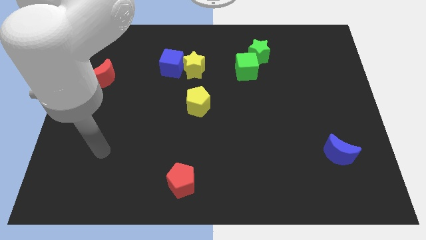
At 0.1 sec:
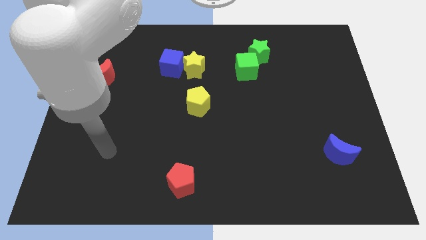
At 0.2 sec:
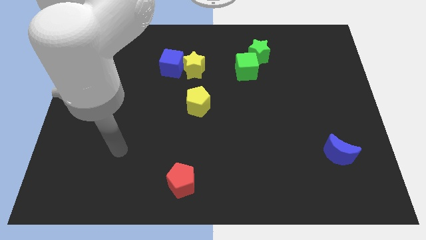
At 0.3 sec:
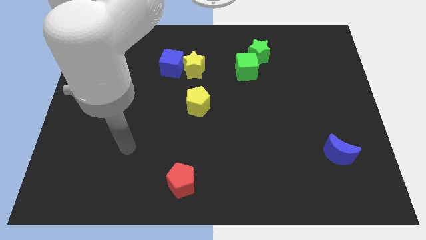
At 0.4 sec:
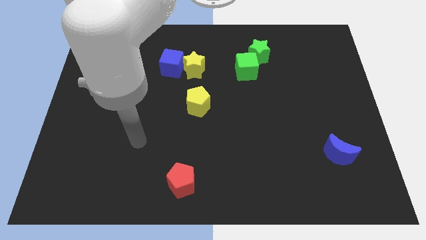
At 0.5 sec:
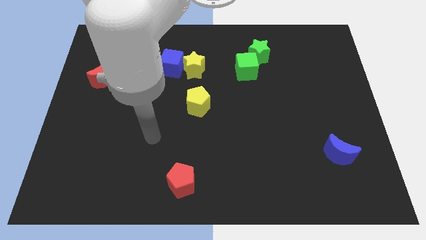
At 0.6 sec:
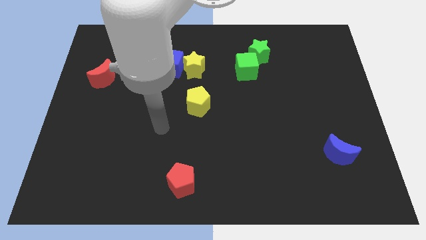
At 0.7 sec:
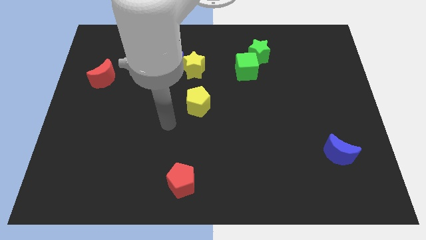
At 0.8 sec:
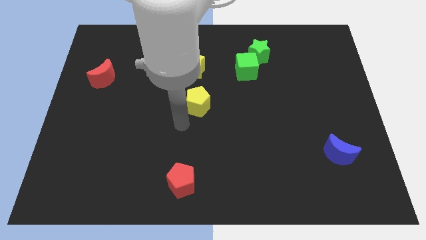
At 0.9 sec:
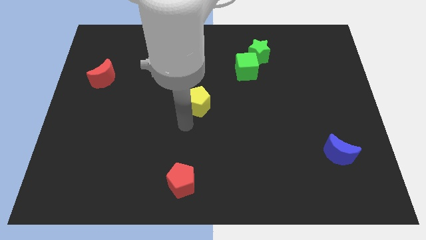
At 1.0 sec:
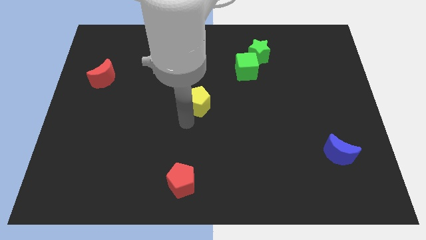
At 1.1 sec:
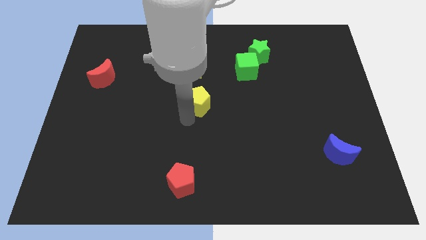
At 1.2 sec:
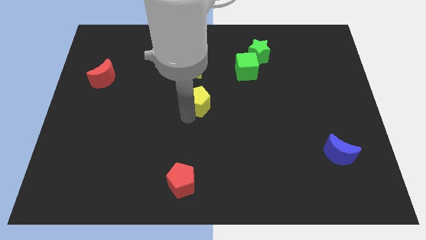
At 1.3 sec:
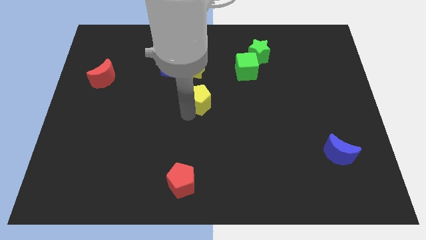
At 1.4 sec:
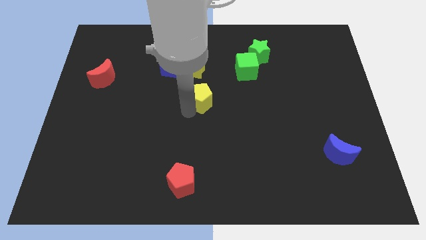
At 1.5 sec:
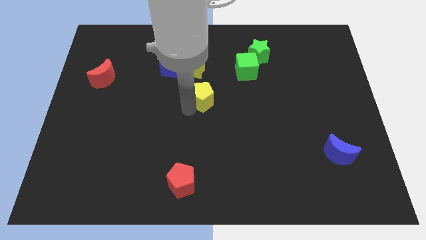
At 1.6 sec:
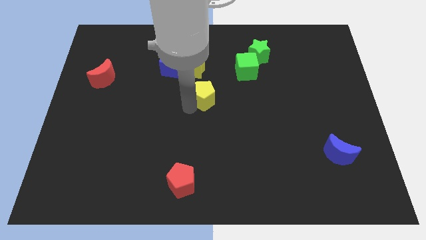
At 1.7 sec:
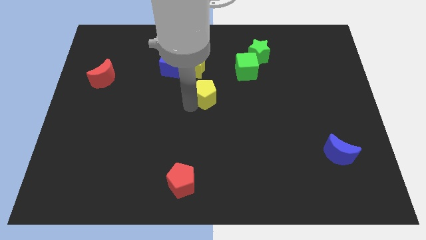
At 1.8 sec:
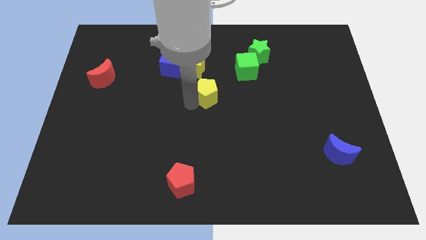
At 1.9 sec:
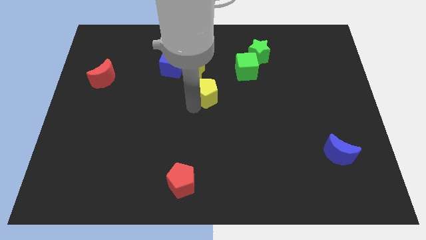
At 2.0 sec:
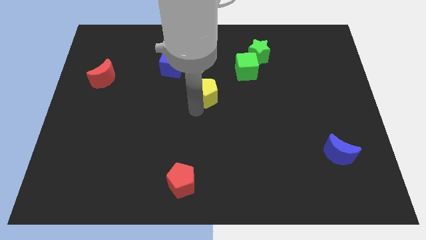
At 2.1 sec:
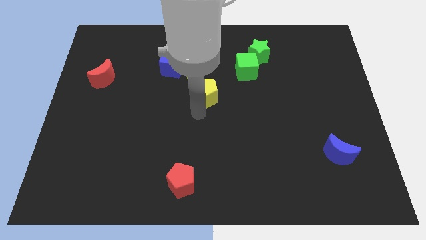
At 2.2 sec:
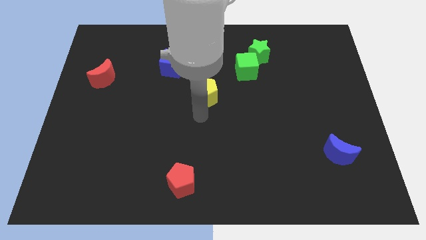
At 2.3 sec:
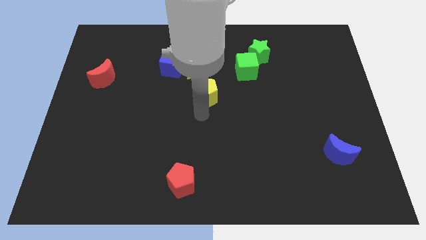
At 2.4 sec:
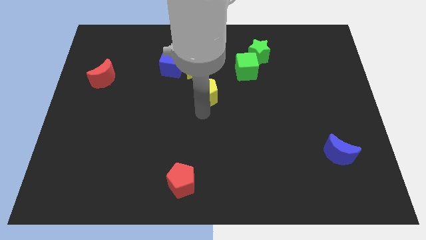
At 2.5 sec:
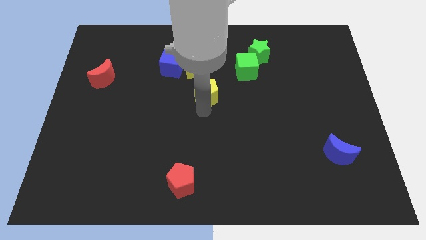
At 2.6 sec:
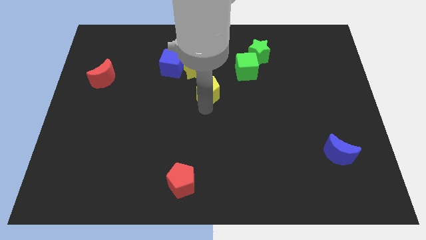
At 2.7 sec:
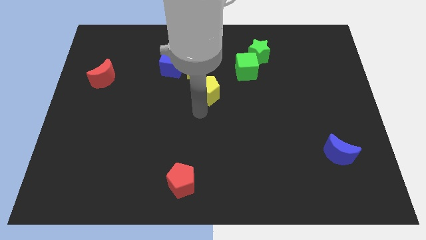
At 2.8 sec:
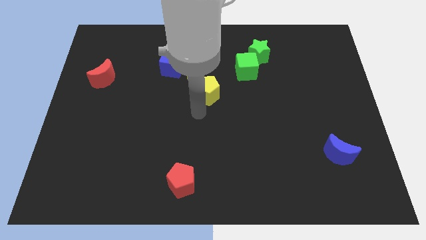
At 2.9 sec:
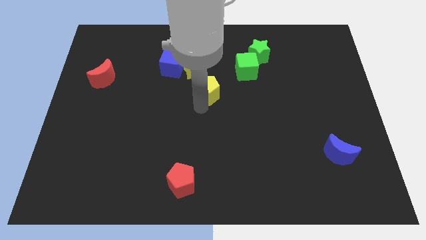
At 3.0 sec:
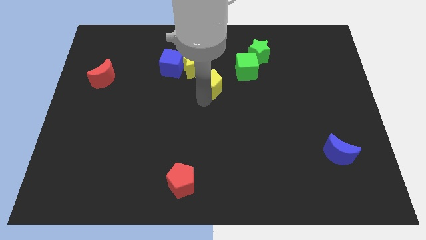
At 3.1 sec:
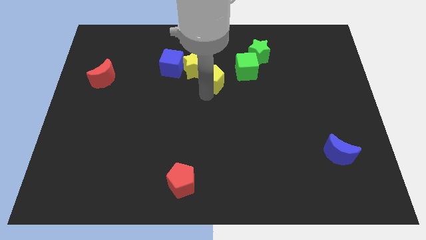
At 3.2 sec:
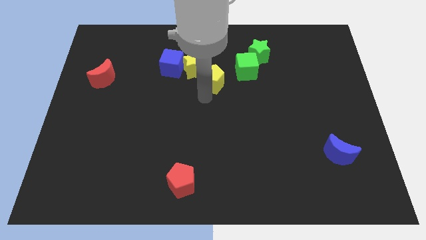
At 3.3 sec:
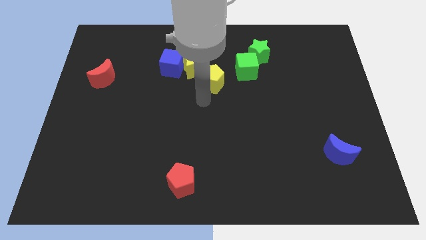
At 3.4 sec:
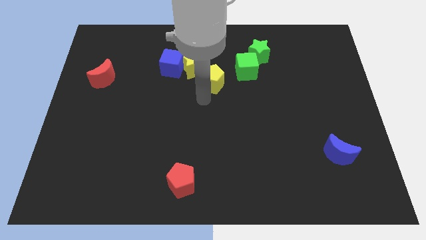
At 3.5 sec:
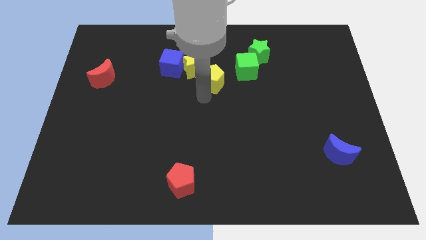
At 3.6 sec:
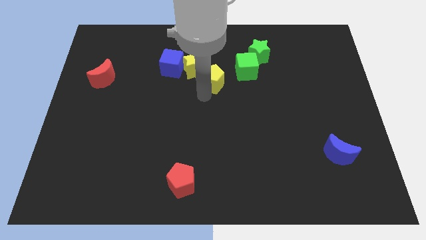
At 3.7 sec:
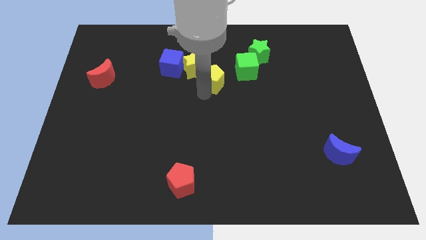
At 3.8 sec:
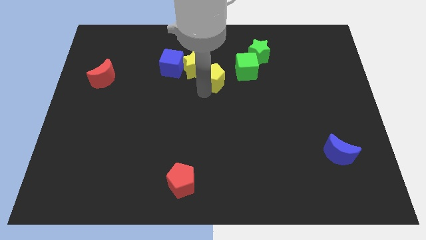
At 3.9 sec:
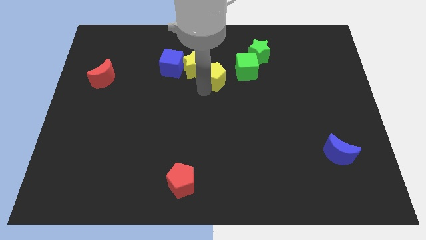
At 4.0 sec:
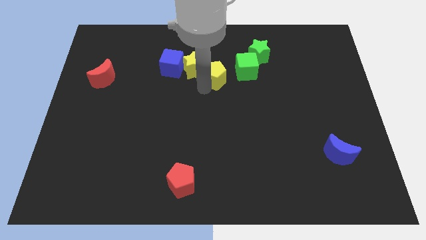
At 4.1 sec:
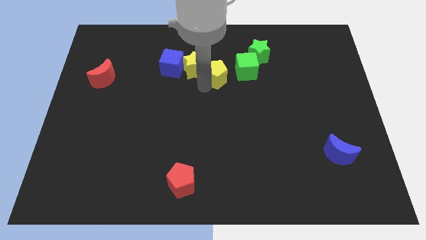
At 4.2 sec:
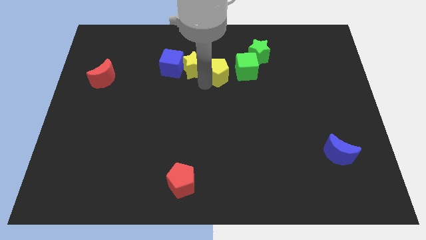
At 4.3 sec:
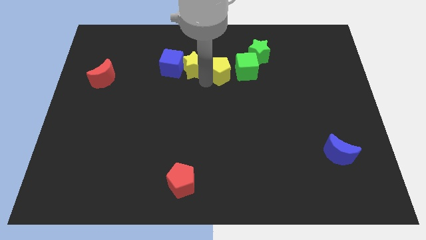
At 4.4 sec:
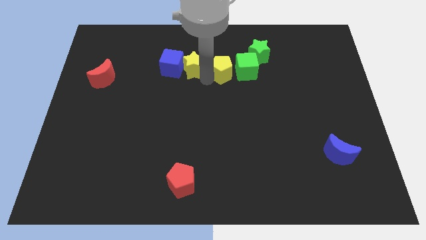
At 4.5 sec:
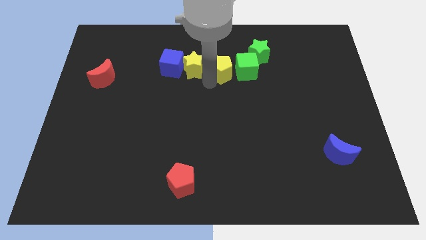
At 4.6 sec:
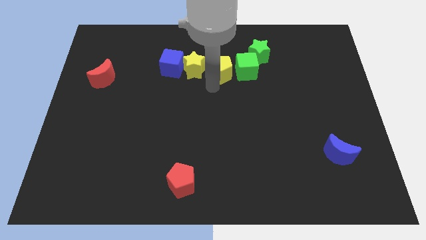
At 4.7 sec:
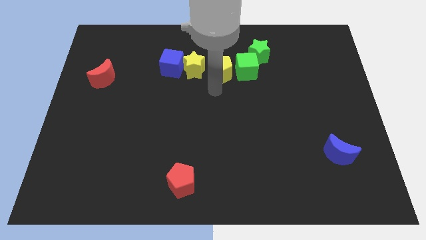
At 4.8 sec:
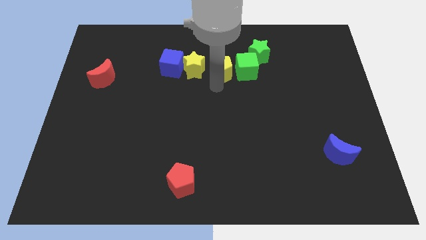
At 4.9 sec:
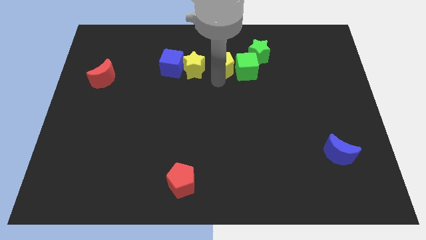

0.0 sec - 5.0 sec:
put the yellow pentagon diagonally up and to the left of the green cube

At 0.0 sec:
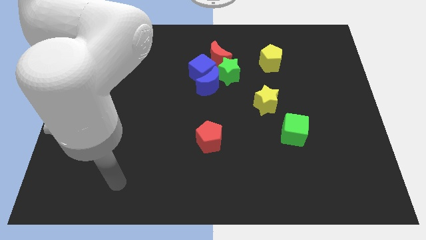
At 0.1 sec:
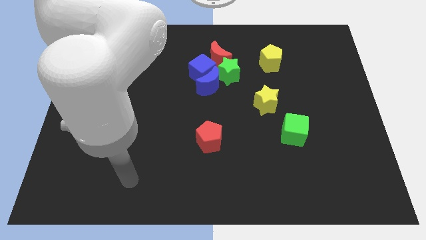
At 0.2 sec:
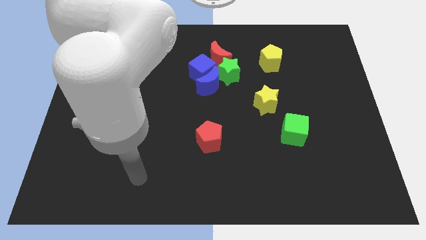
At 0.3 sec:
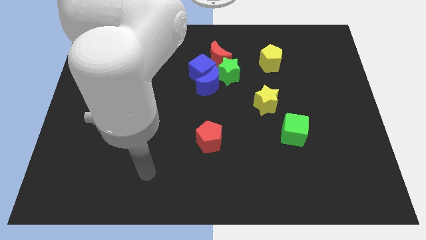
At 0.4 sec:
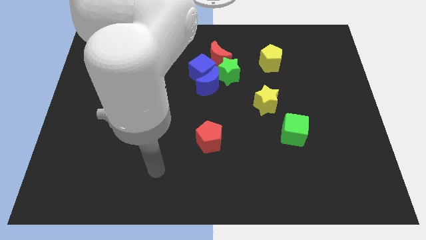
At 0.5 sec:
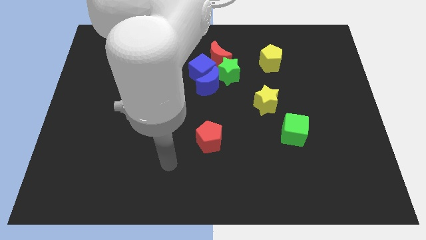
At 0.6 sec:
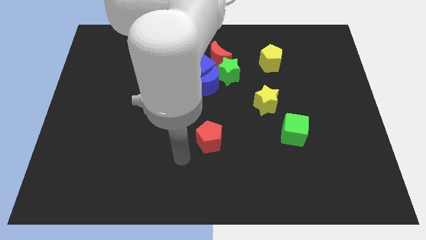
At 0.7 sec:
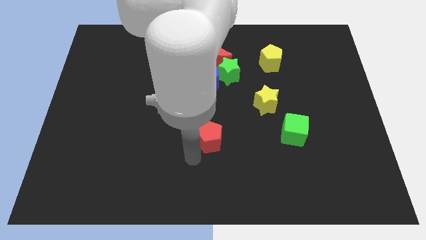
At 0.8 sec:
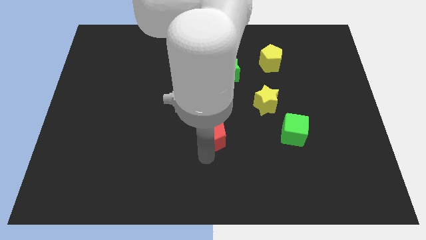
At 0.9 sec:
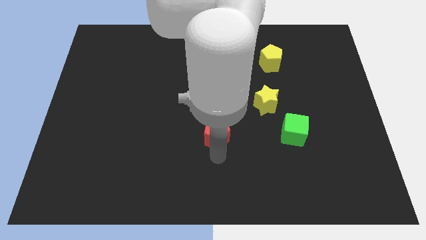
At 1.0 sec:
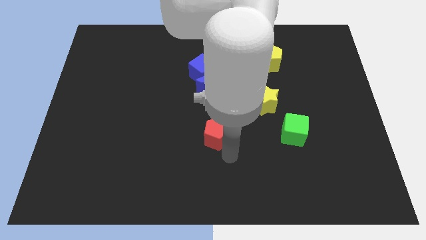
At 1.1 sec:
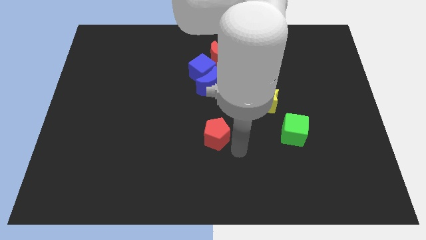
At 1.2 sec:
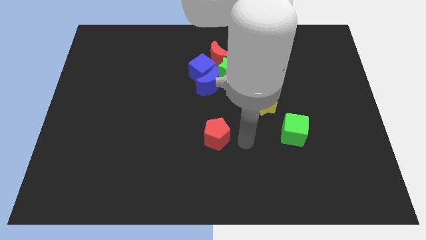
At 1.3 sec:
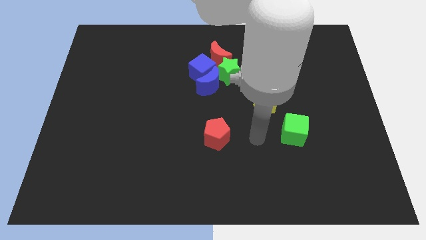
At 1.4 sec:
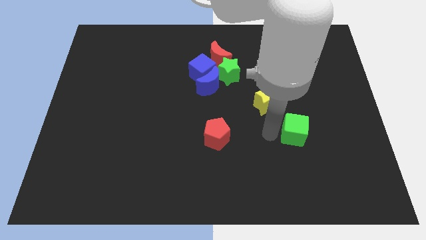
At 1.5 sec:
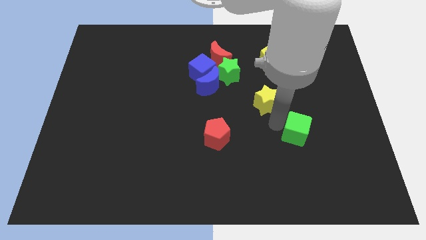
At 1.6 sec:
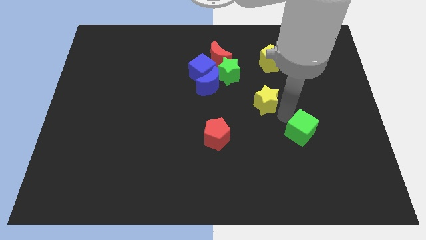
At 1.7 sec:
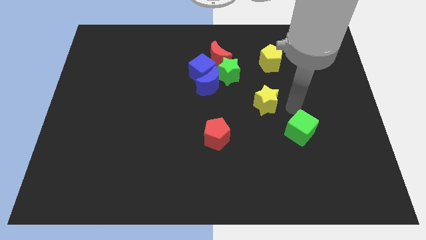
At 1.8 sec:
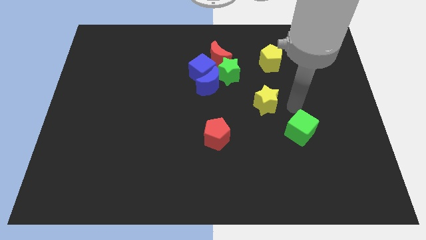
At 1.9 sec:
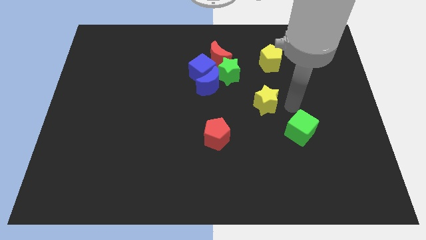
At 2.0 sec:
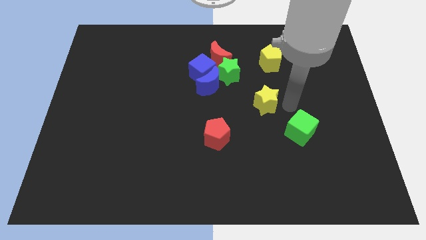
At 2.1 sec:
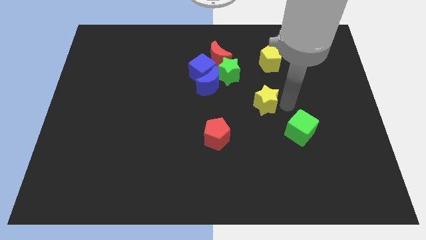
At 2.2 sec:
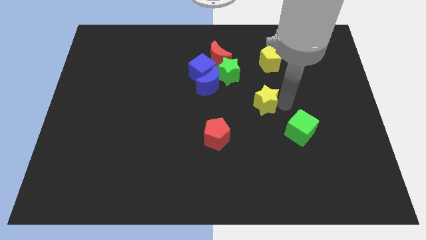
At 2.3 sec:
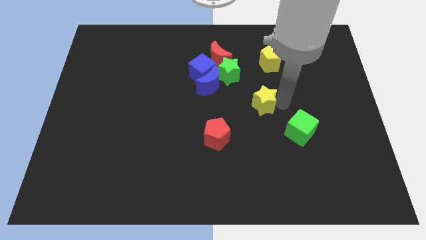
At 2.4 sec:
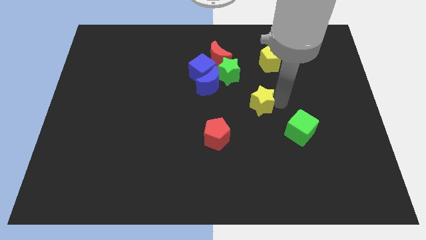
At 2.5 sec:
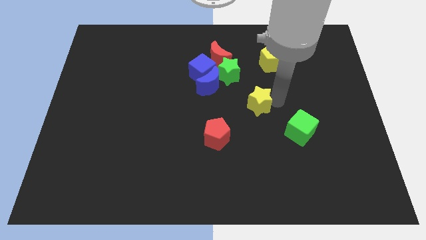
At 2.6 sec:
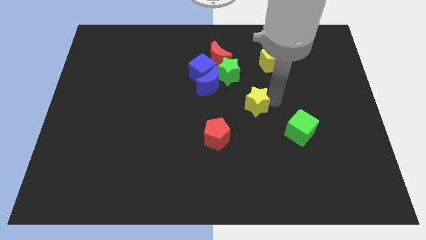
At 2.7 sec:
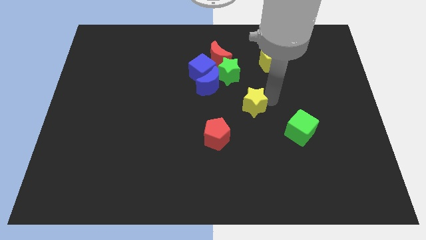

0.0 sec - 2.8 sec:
slide the yellow star diagonally down and to the right of the blue moon
